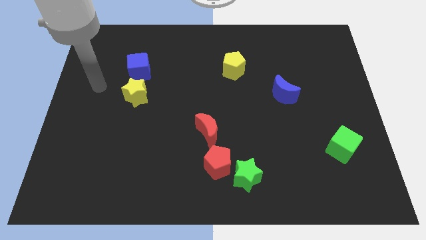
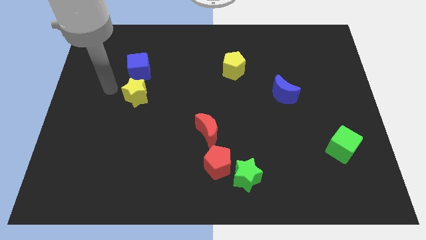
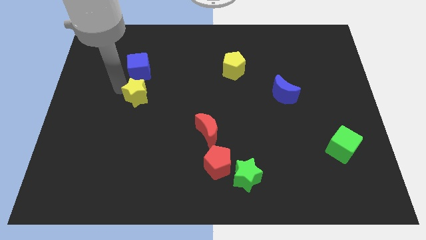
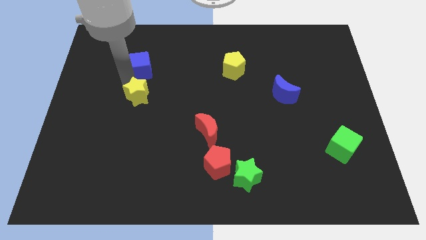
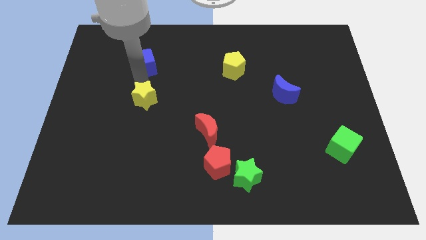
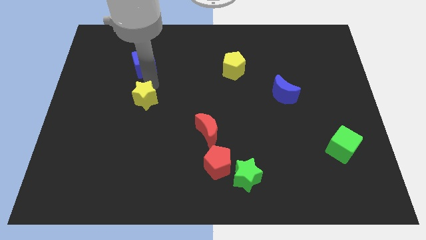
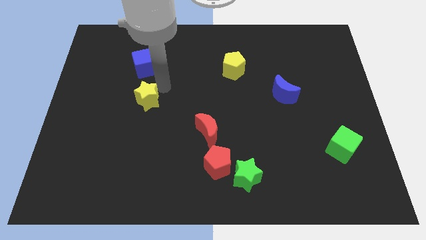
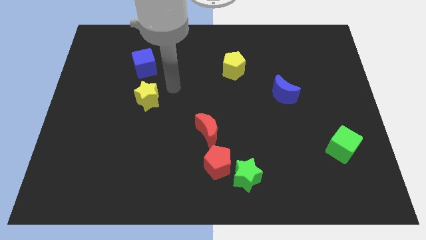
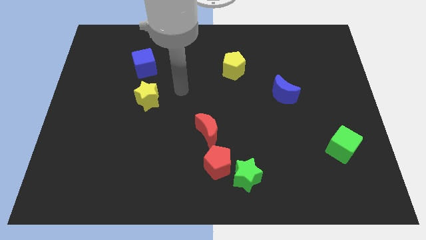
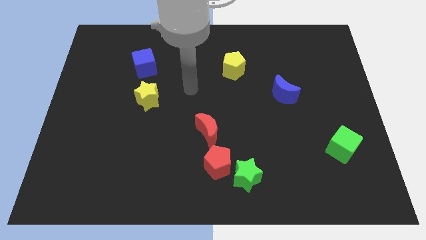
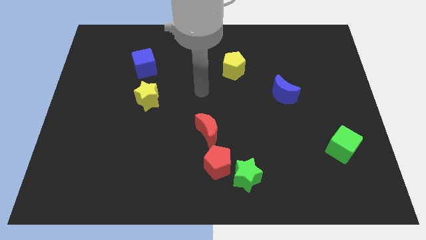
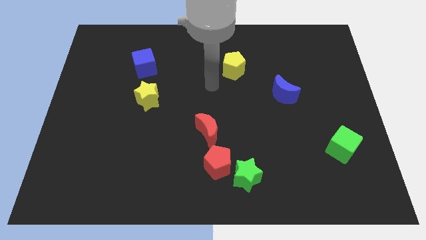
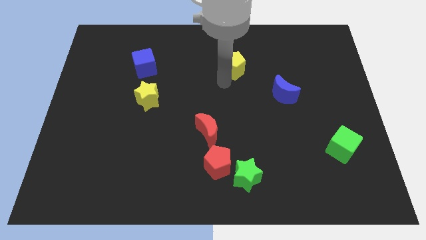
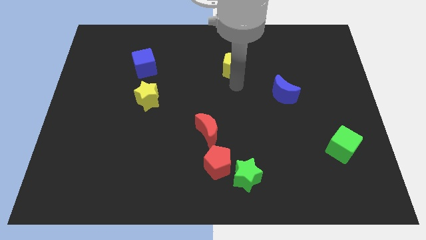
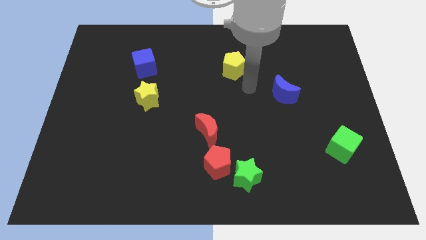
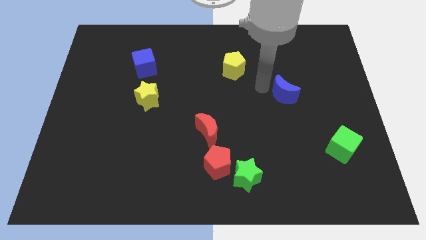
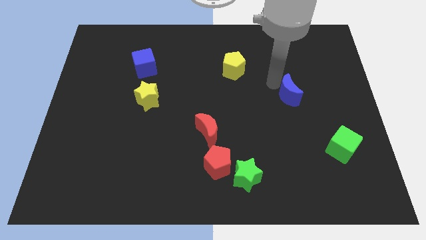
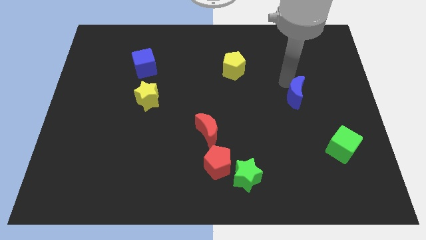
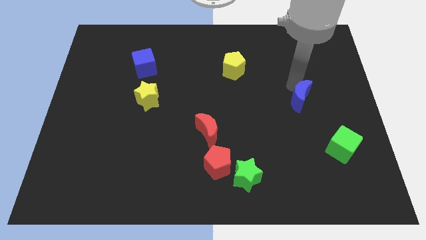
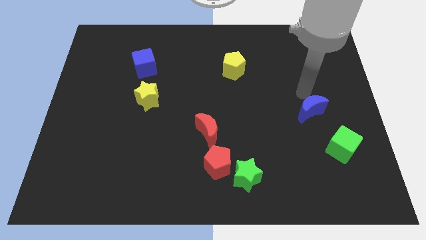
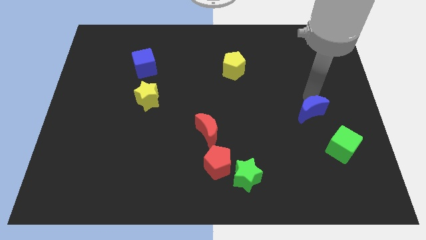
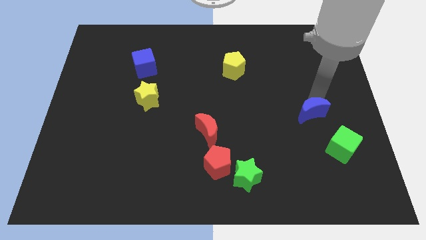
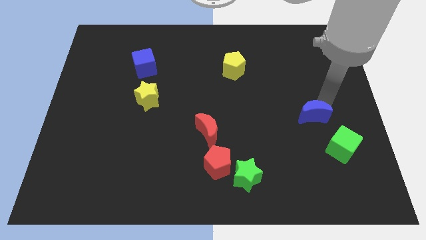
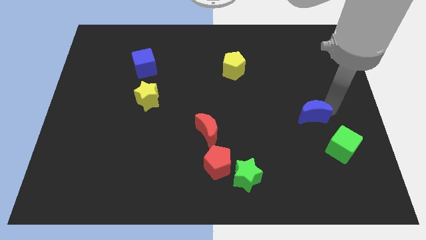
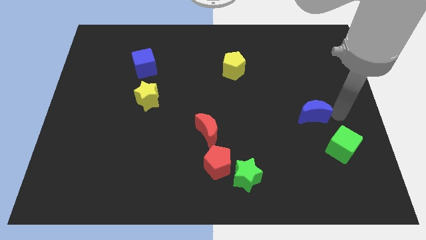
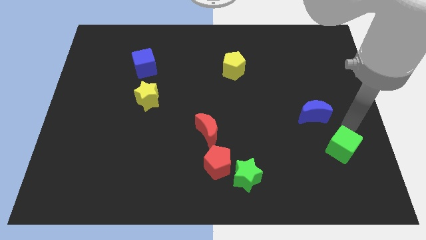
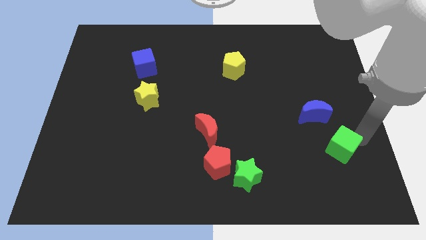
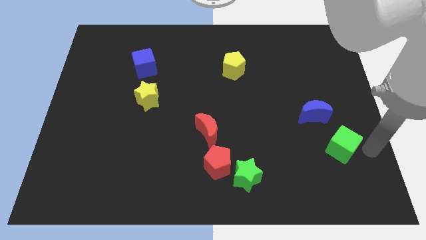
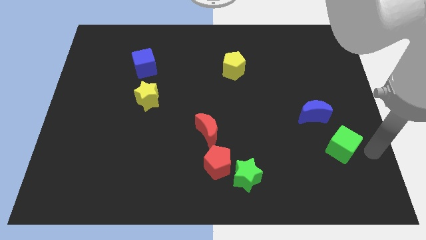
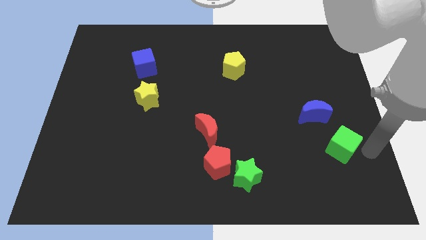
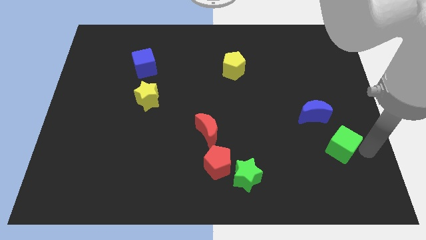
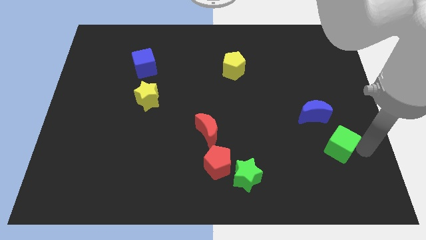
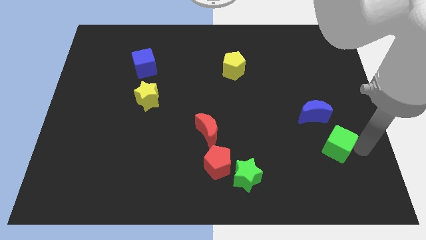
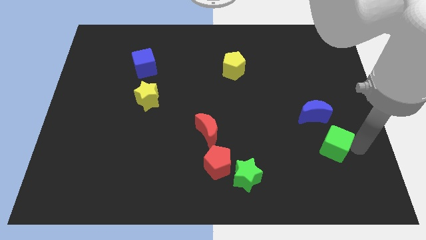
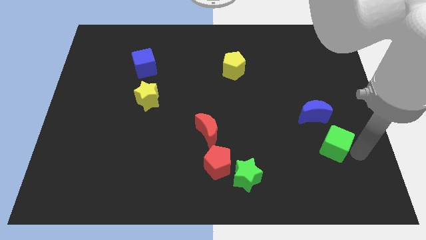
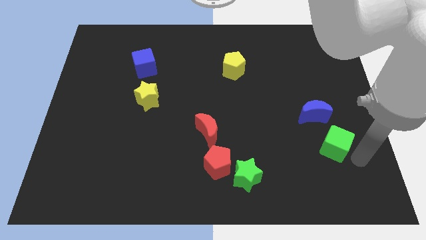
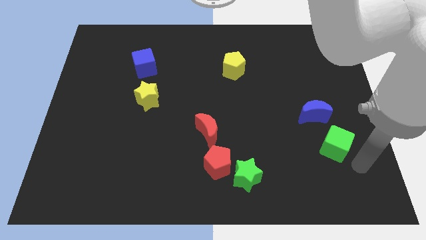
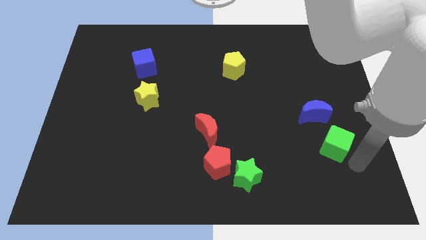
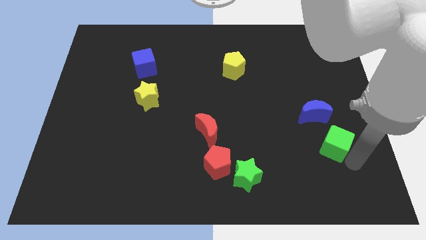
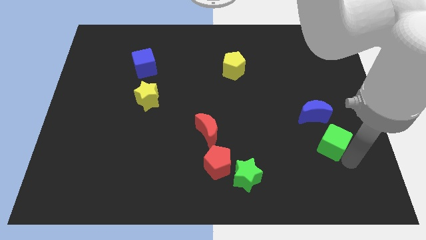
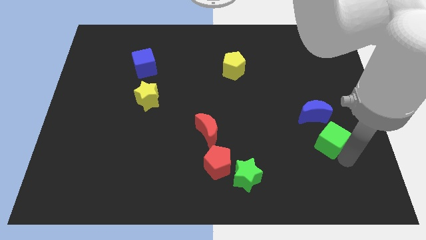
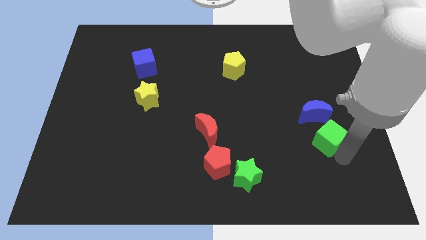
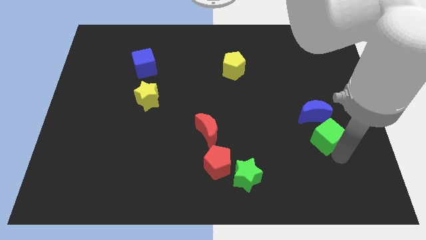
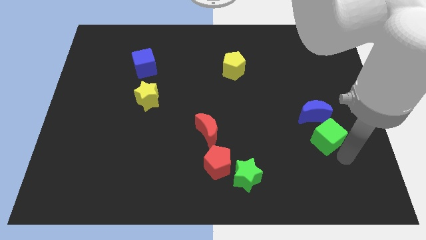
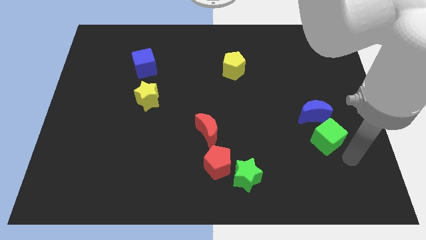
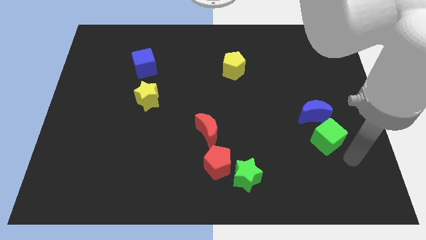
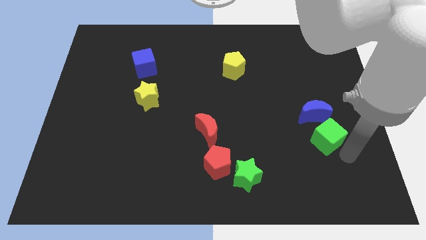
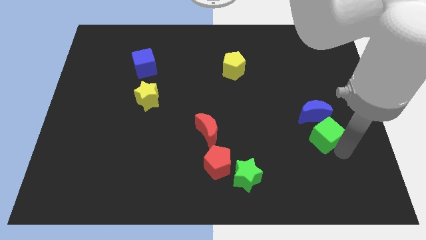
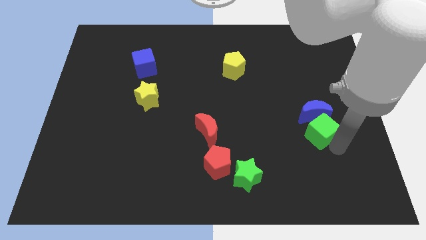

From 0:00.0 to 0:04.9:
push the green cube to the blue moon

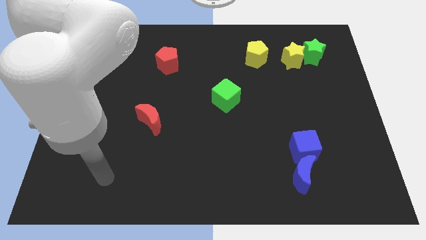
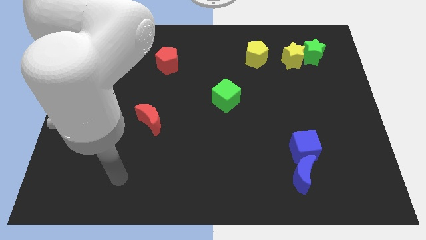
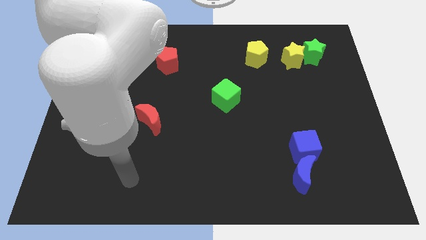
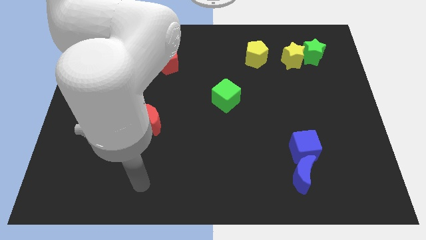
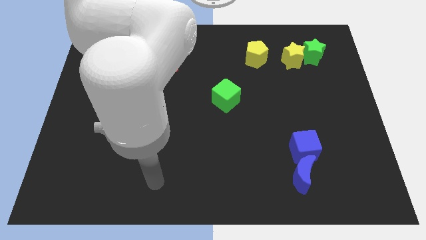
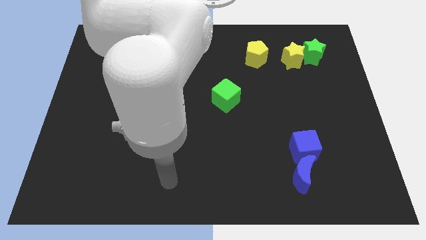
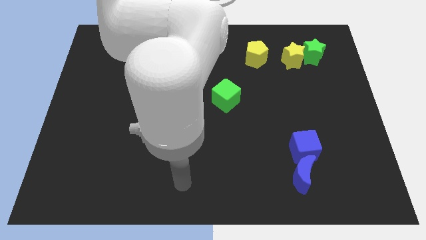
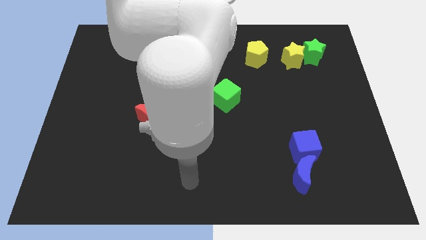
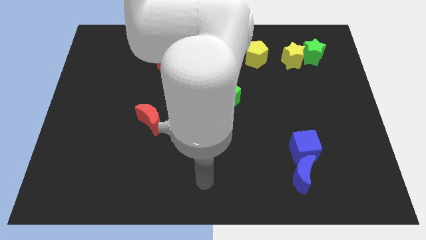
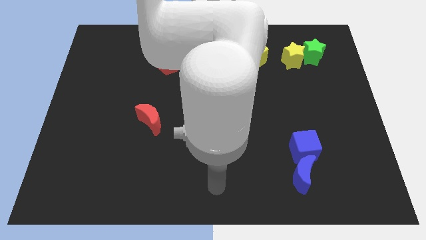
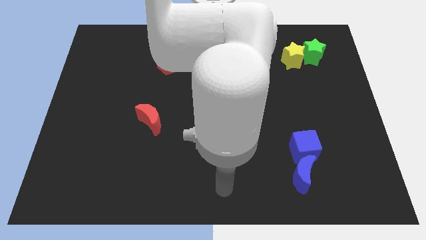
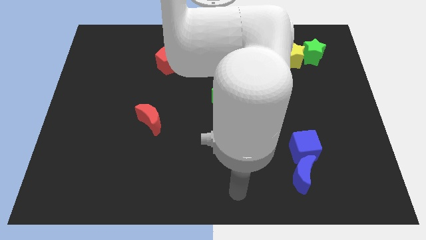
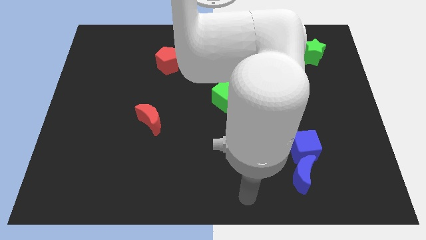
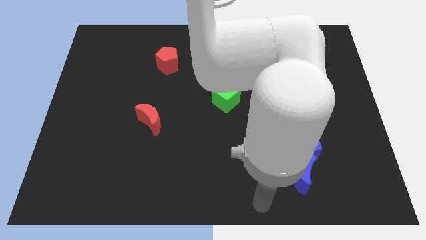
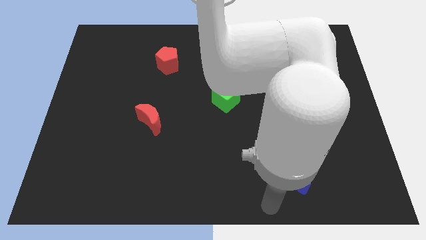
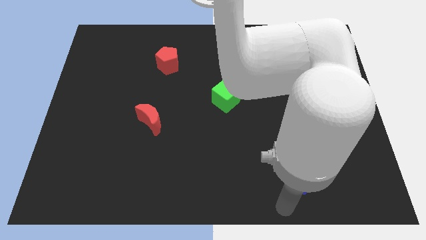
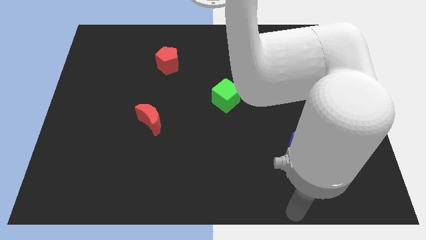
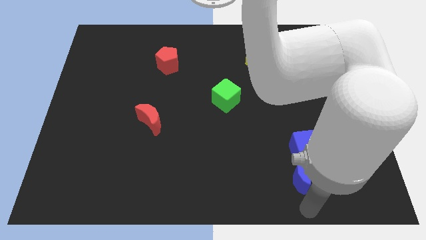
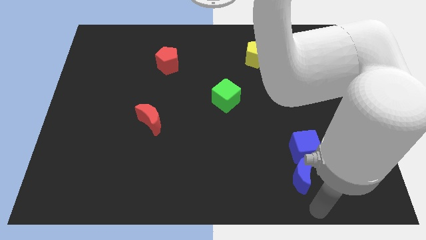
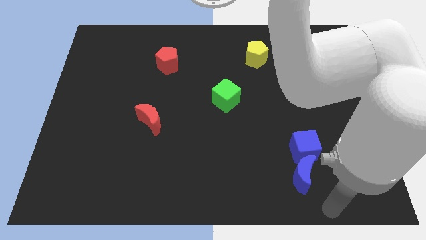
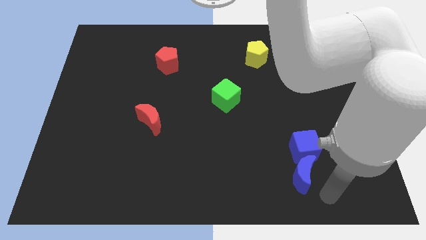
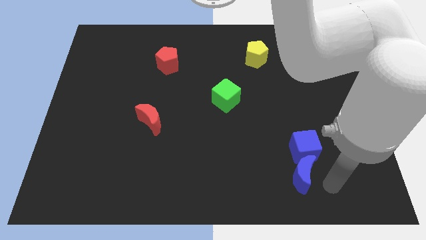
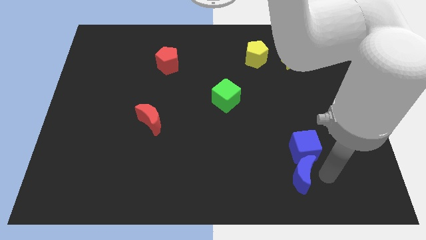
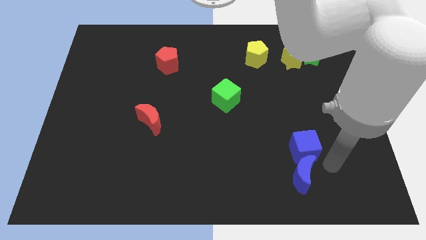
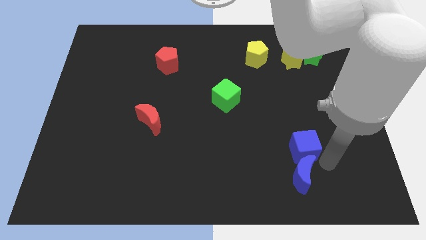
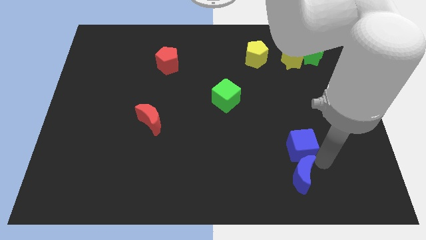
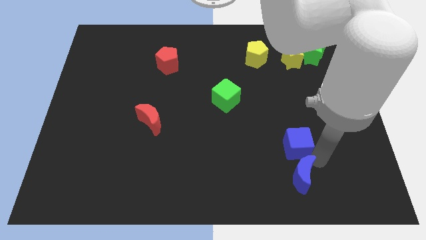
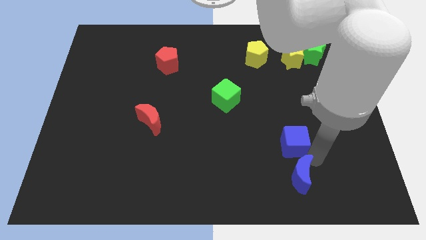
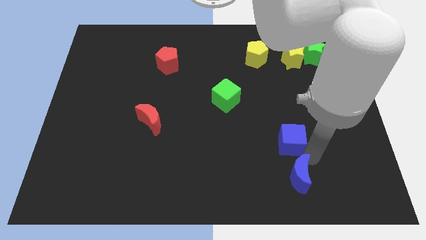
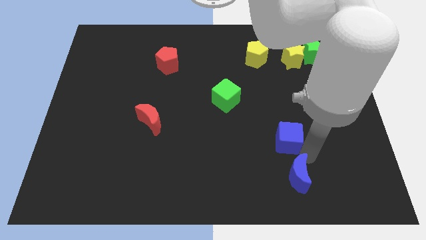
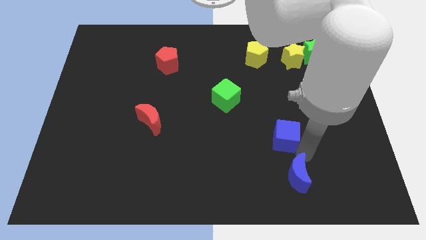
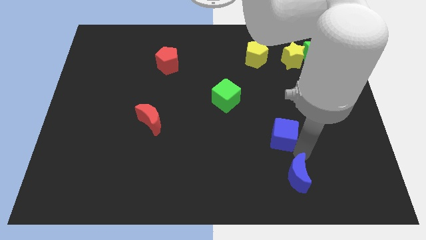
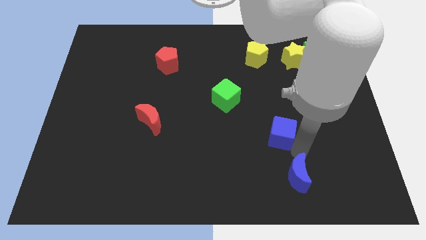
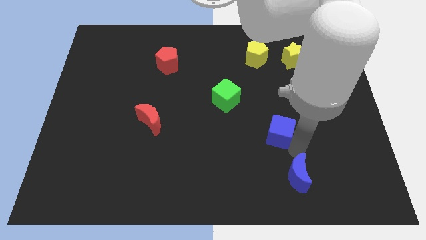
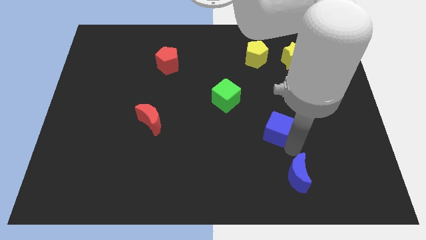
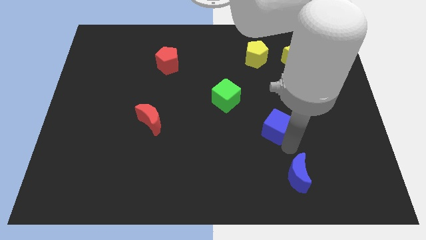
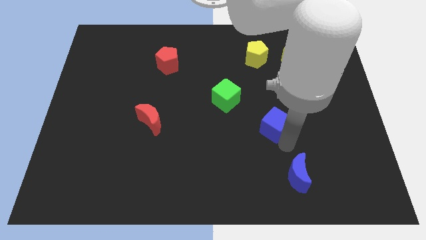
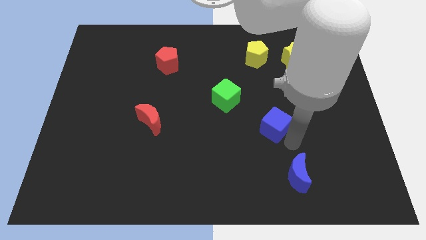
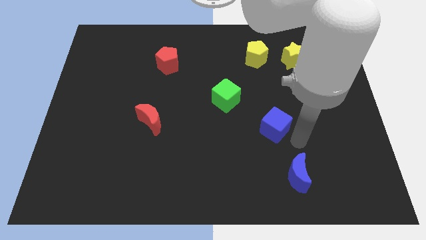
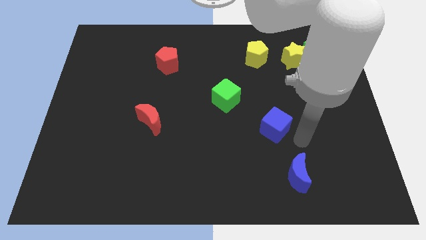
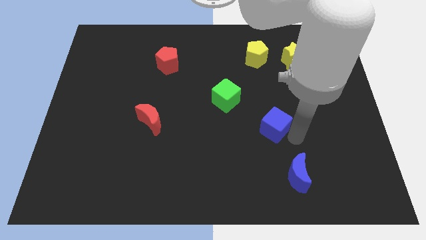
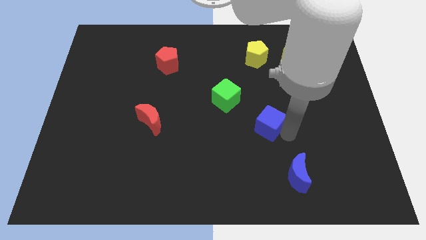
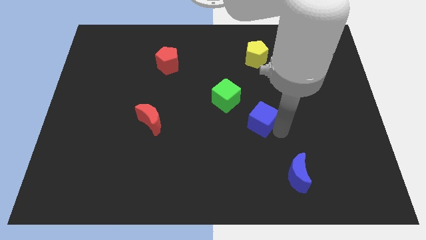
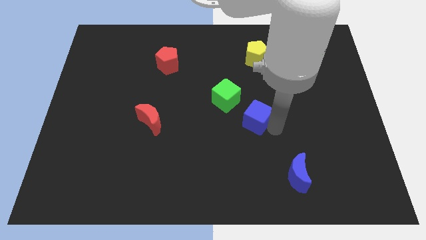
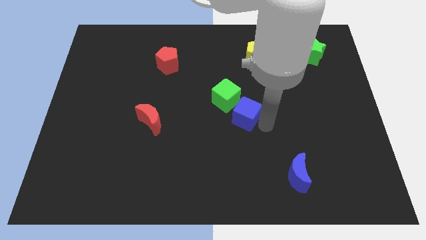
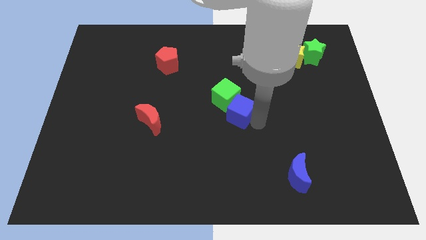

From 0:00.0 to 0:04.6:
push the blue cube towards the green cube
